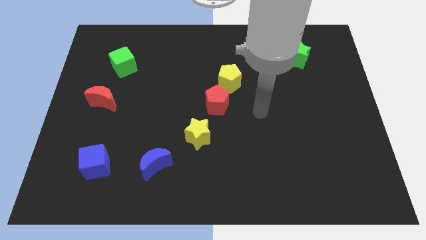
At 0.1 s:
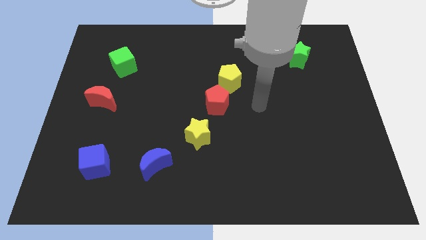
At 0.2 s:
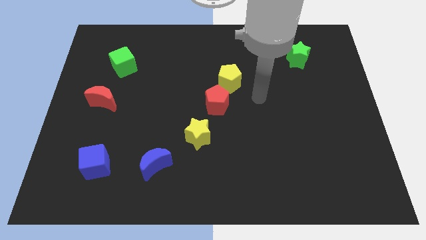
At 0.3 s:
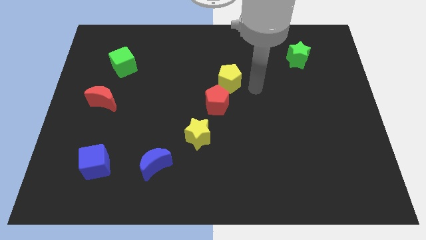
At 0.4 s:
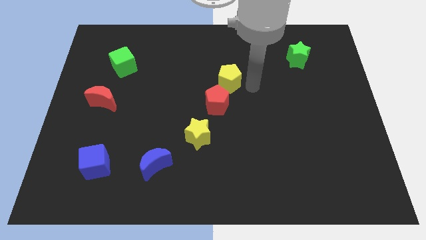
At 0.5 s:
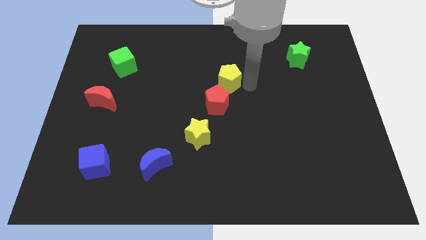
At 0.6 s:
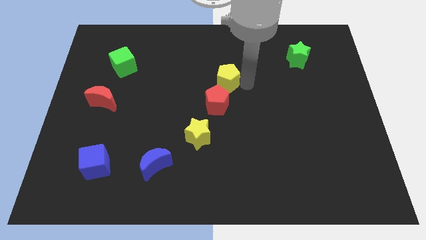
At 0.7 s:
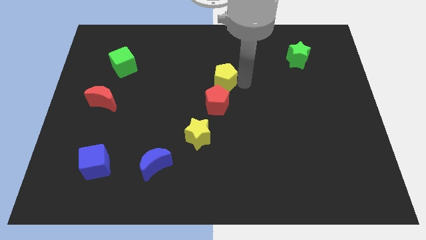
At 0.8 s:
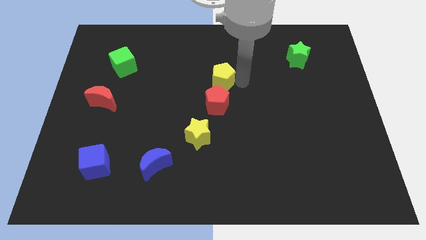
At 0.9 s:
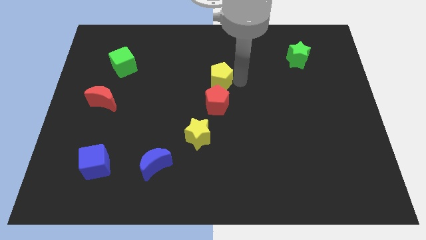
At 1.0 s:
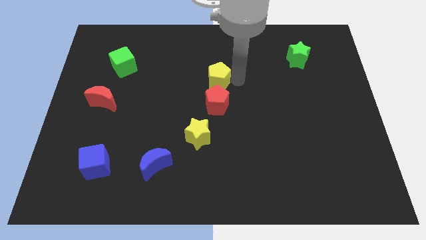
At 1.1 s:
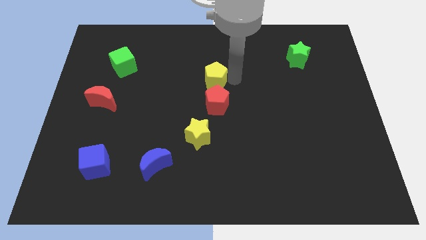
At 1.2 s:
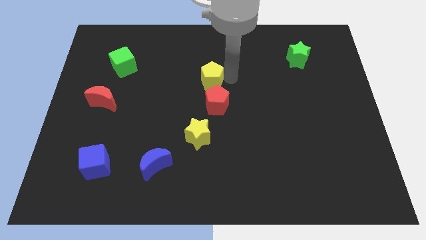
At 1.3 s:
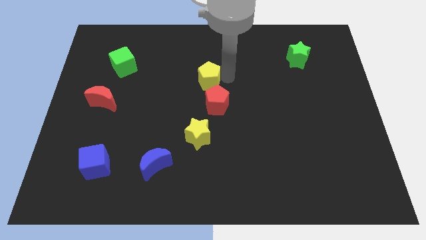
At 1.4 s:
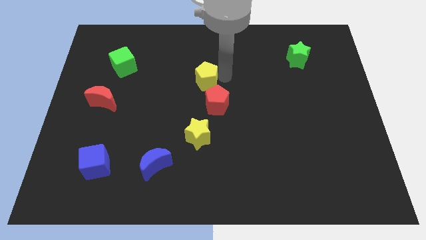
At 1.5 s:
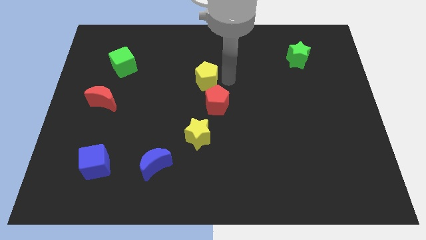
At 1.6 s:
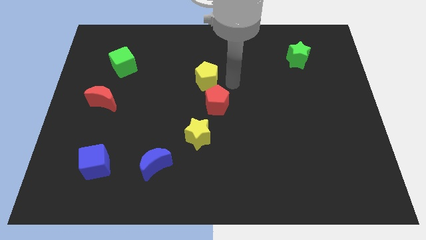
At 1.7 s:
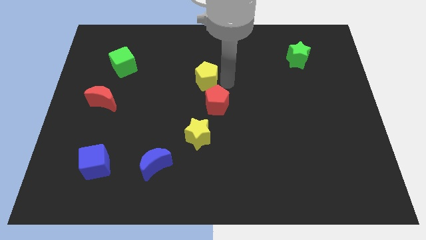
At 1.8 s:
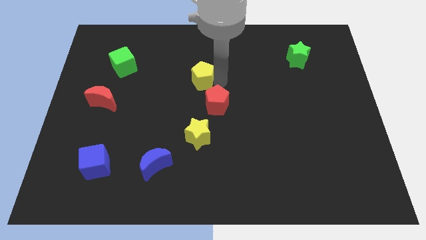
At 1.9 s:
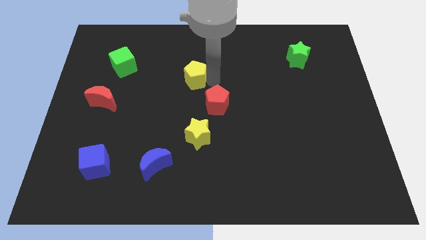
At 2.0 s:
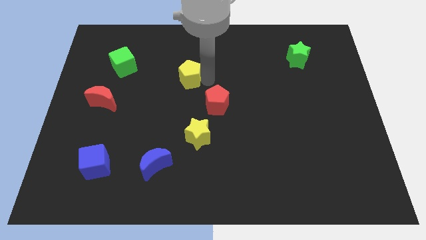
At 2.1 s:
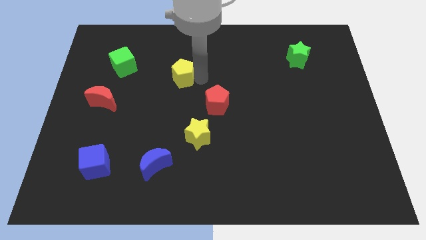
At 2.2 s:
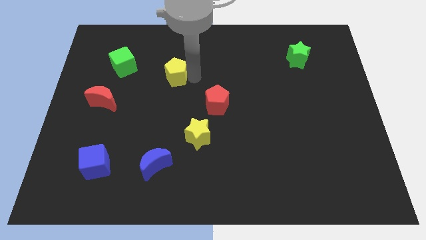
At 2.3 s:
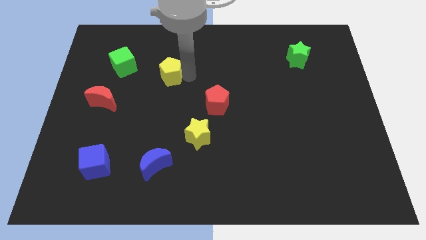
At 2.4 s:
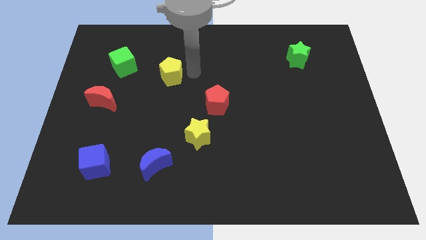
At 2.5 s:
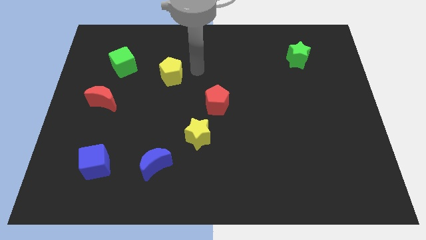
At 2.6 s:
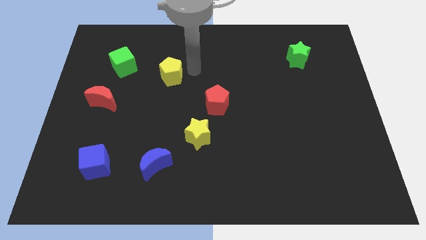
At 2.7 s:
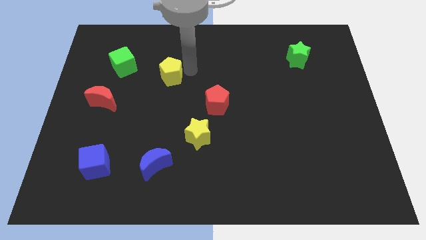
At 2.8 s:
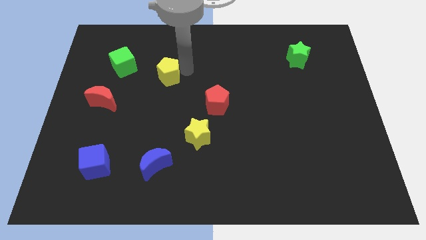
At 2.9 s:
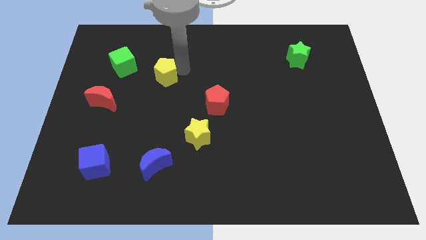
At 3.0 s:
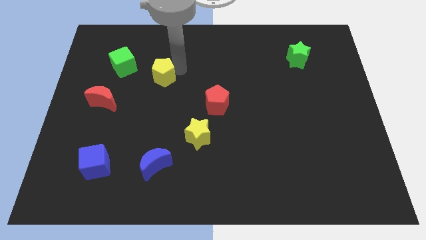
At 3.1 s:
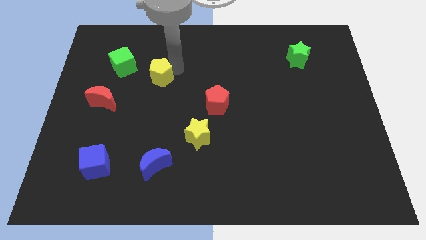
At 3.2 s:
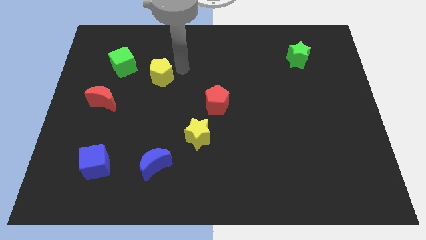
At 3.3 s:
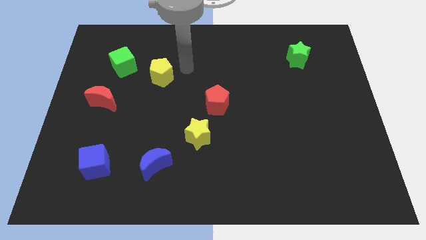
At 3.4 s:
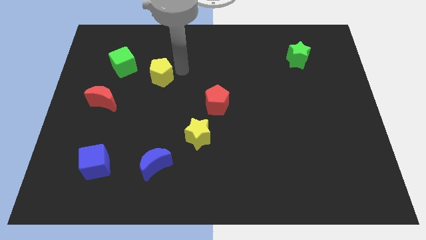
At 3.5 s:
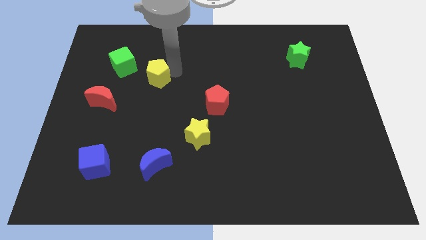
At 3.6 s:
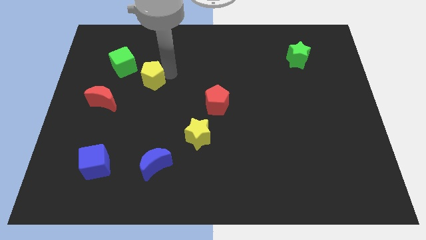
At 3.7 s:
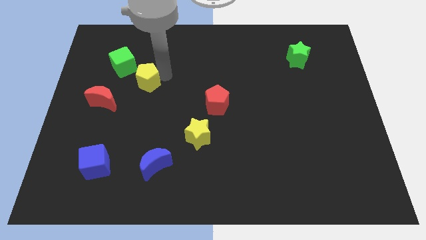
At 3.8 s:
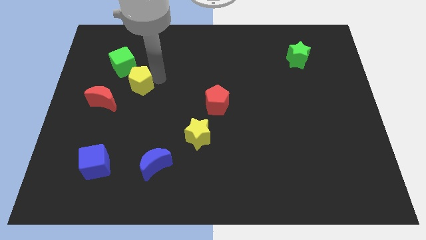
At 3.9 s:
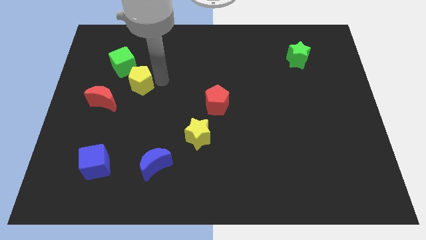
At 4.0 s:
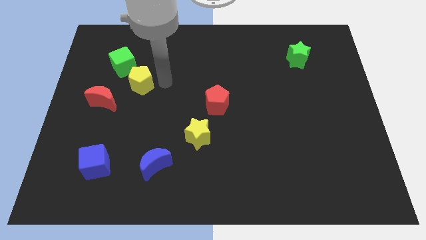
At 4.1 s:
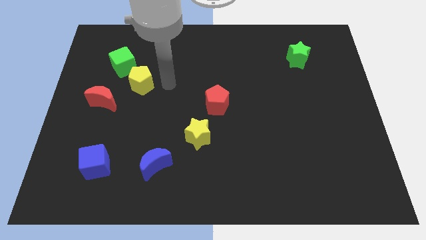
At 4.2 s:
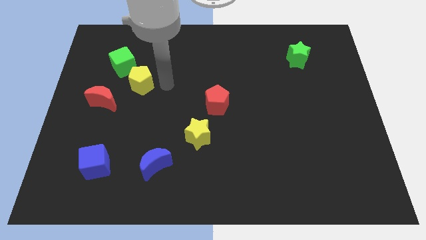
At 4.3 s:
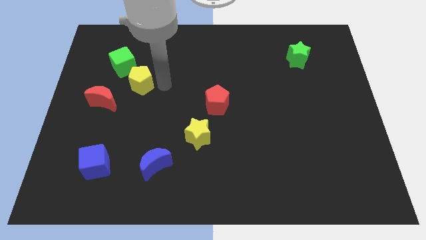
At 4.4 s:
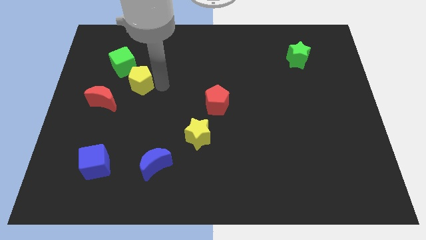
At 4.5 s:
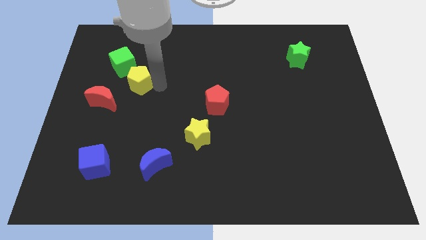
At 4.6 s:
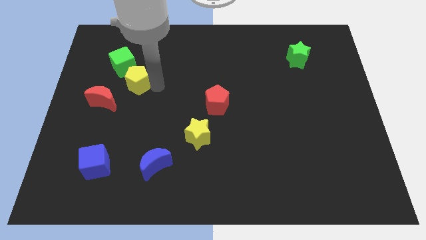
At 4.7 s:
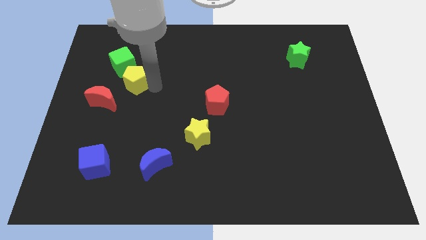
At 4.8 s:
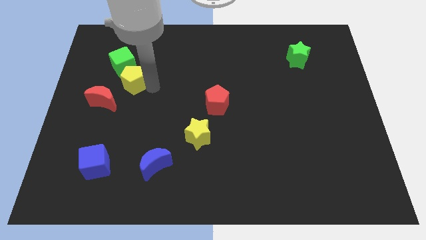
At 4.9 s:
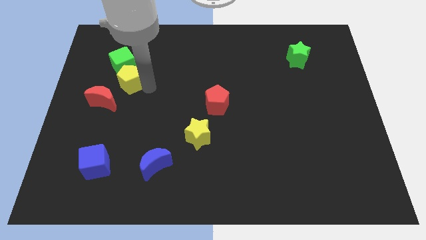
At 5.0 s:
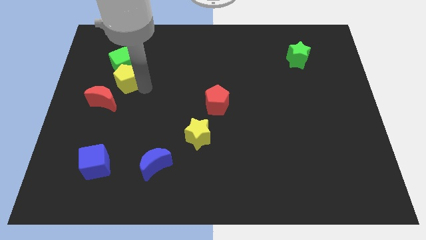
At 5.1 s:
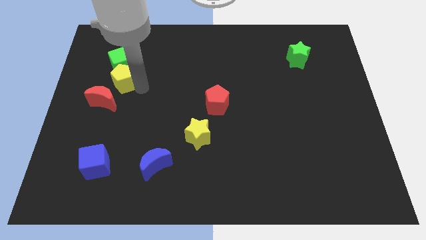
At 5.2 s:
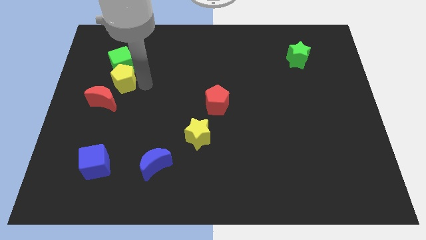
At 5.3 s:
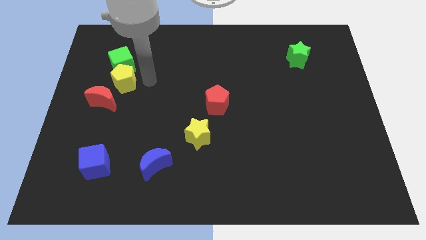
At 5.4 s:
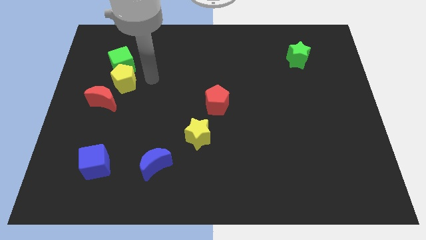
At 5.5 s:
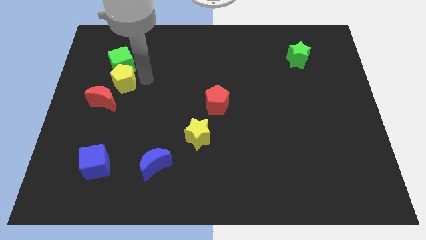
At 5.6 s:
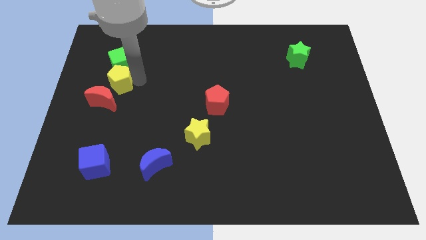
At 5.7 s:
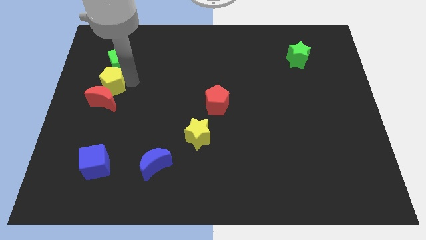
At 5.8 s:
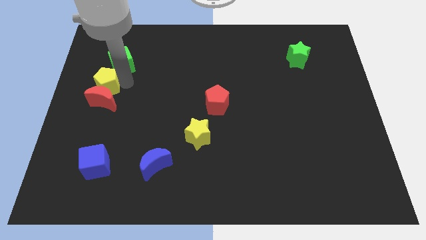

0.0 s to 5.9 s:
push the yellow pentagon to the left side of the board
